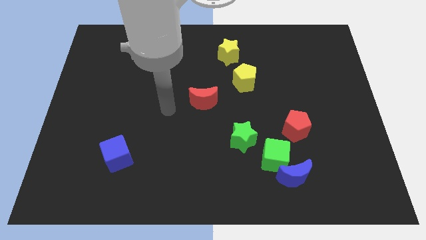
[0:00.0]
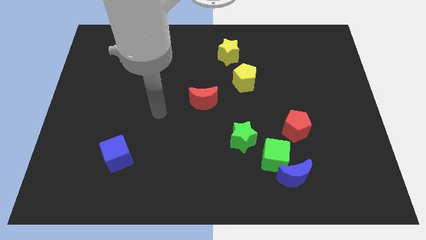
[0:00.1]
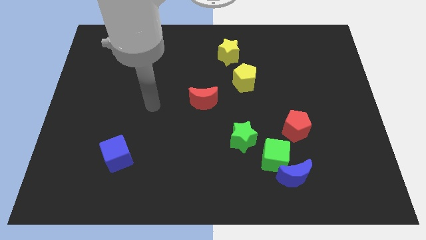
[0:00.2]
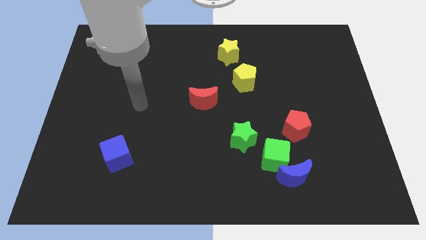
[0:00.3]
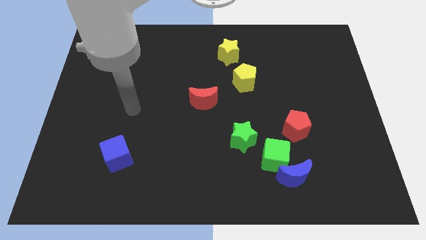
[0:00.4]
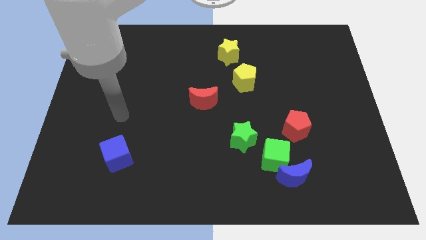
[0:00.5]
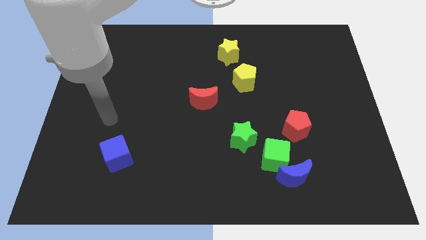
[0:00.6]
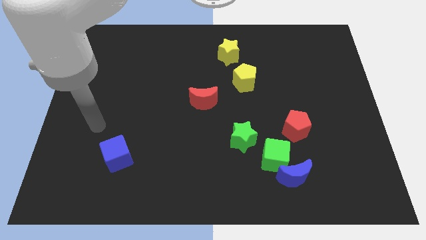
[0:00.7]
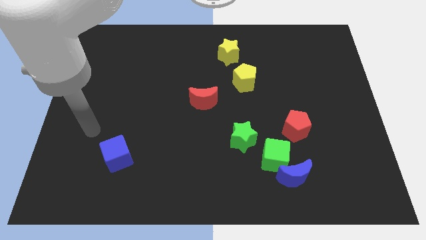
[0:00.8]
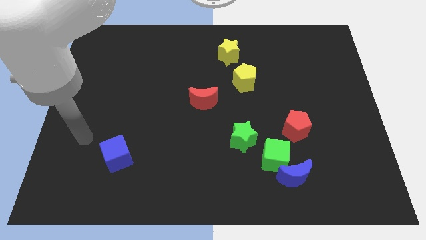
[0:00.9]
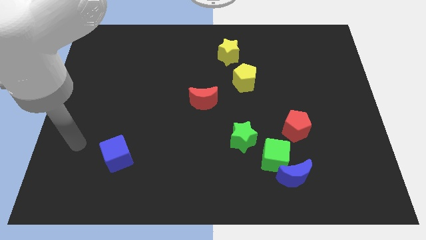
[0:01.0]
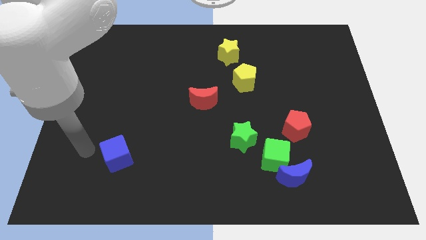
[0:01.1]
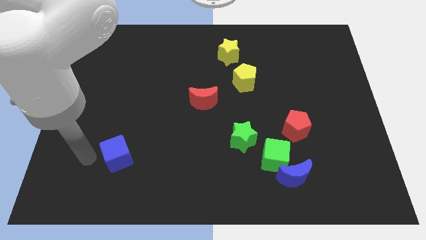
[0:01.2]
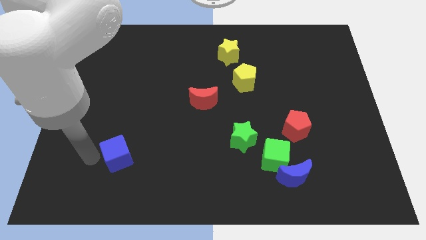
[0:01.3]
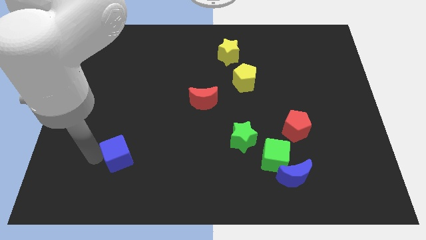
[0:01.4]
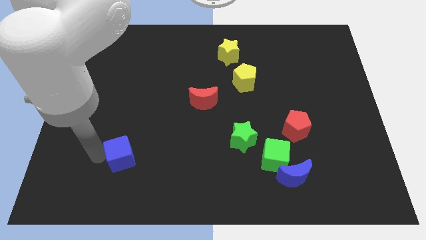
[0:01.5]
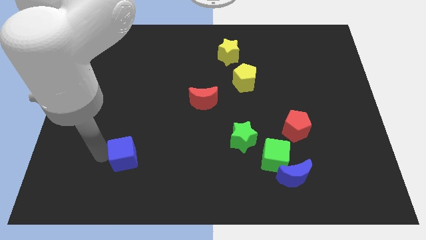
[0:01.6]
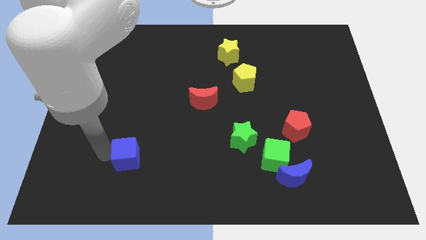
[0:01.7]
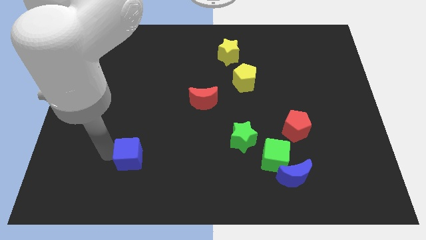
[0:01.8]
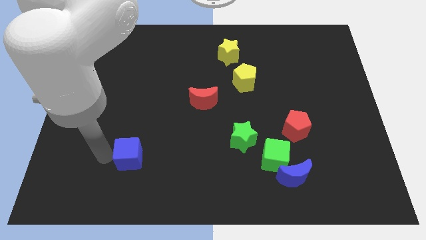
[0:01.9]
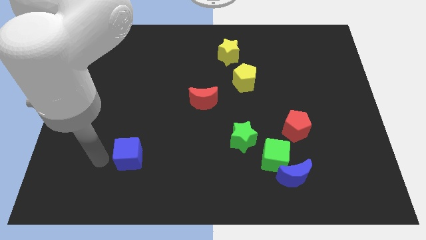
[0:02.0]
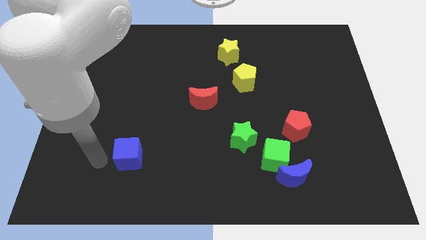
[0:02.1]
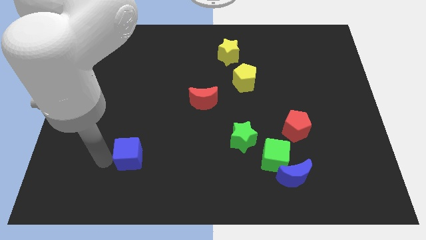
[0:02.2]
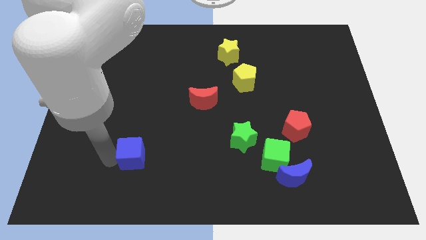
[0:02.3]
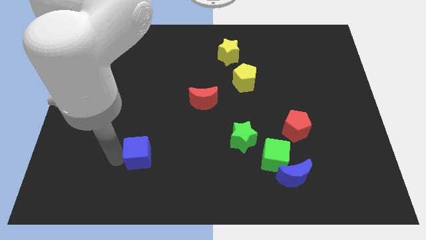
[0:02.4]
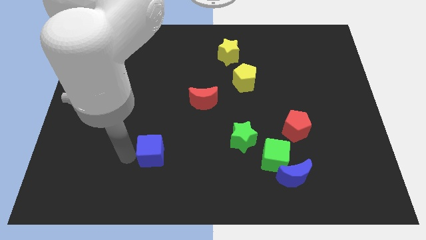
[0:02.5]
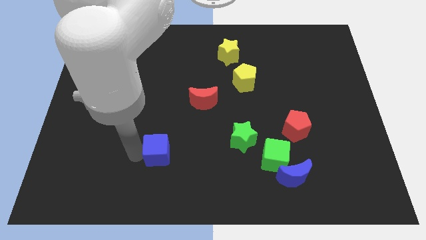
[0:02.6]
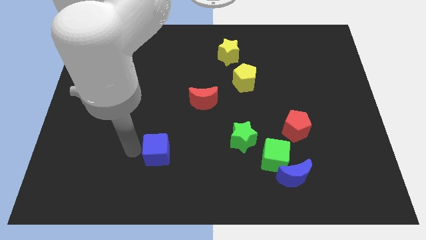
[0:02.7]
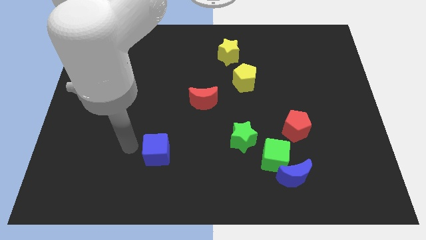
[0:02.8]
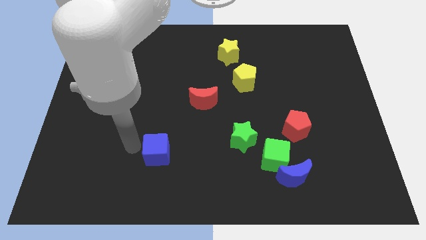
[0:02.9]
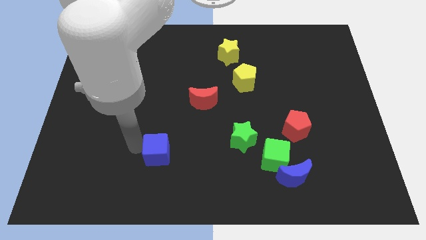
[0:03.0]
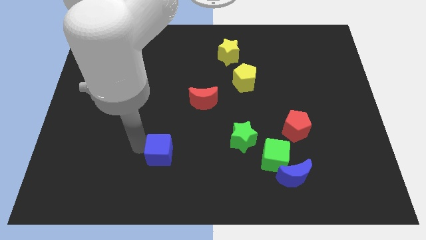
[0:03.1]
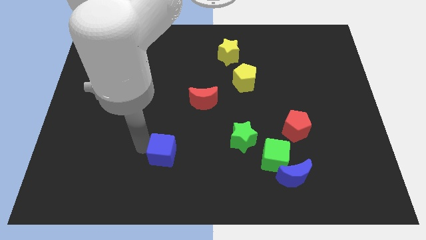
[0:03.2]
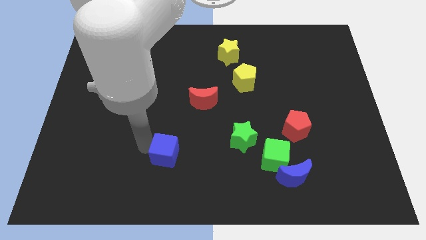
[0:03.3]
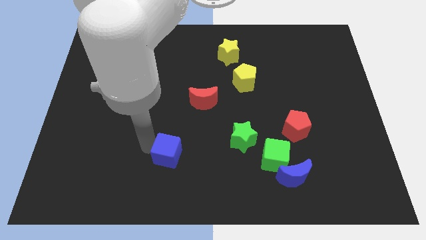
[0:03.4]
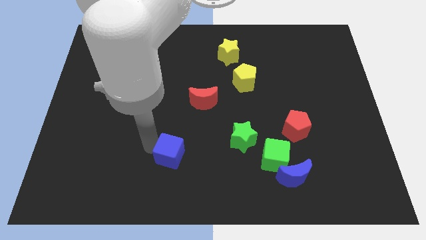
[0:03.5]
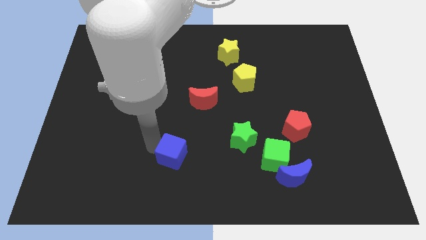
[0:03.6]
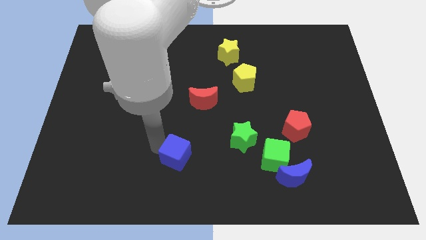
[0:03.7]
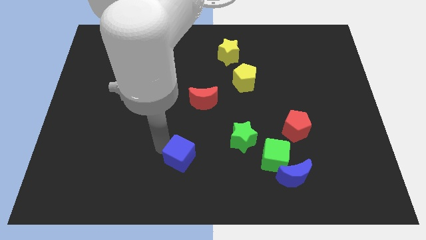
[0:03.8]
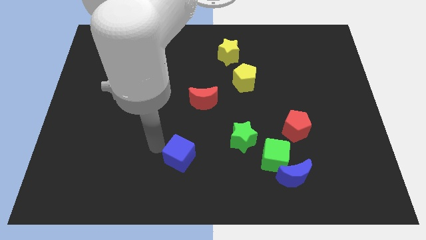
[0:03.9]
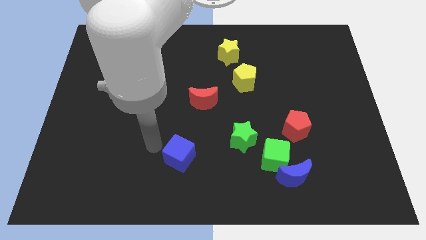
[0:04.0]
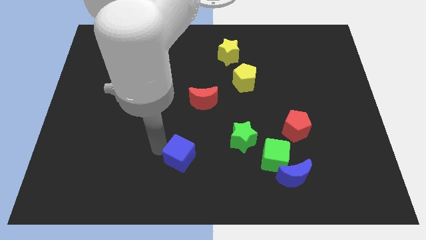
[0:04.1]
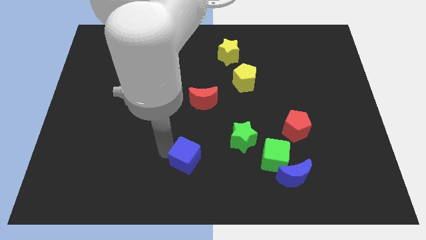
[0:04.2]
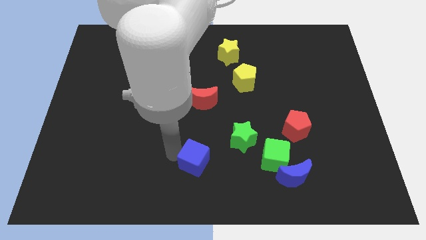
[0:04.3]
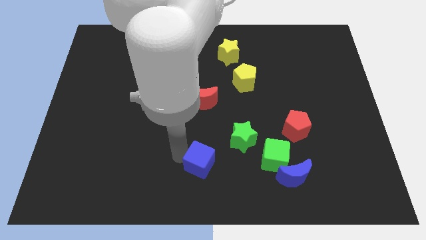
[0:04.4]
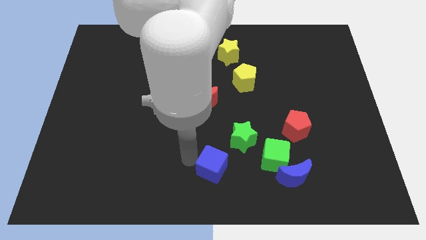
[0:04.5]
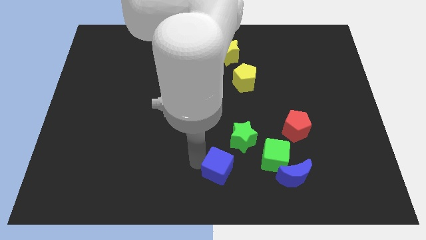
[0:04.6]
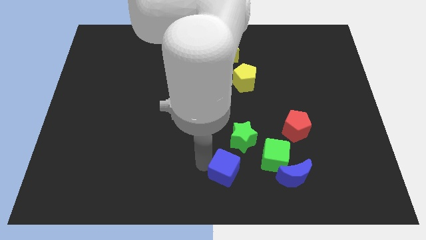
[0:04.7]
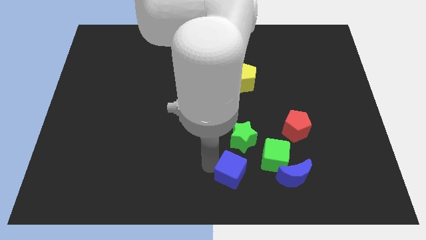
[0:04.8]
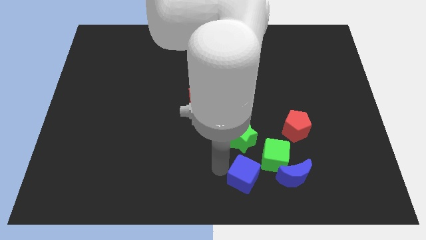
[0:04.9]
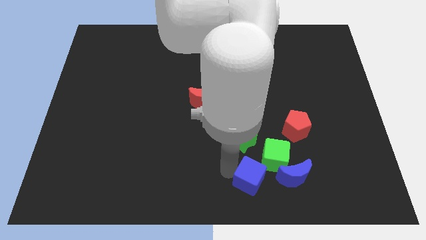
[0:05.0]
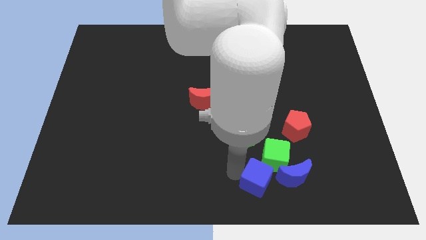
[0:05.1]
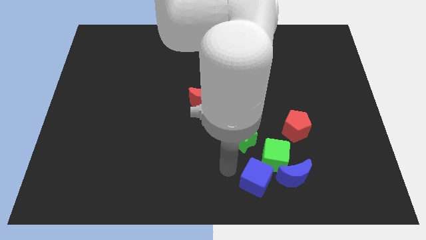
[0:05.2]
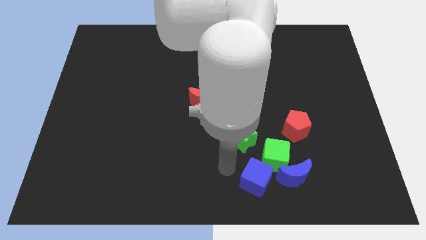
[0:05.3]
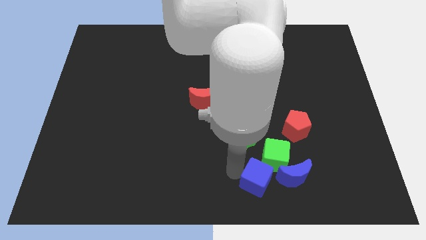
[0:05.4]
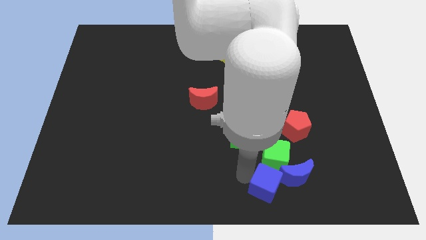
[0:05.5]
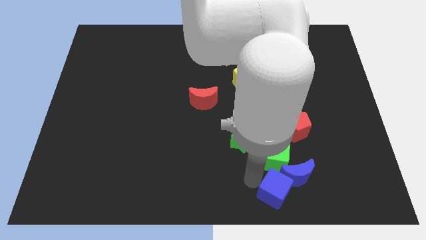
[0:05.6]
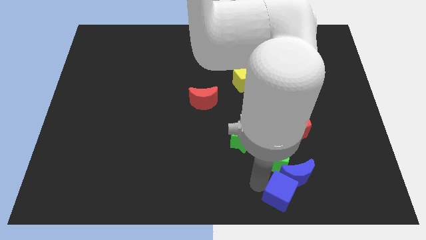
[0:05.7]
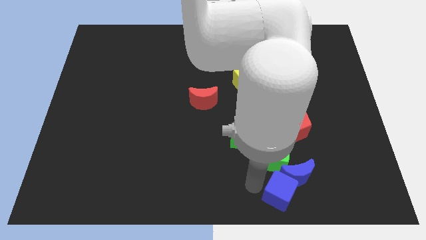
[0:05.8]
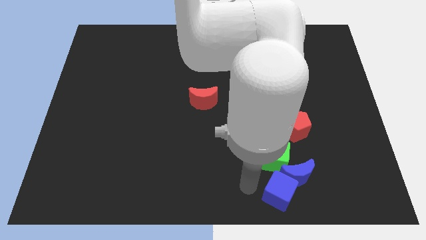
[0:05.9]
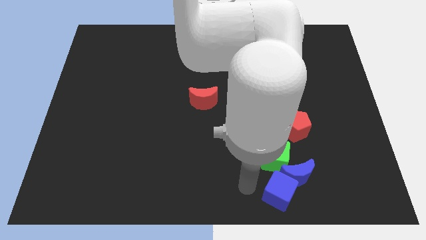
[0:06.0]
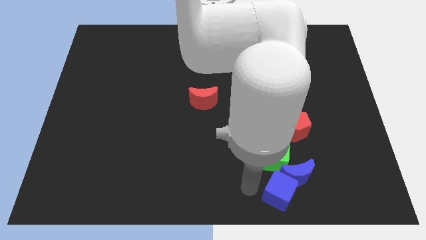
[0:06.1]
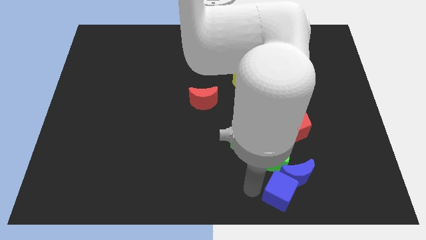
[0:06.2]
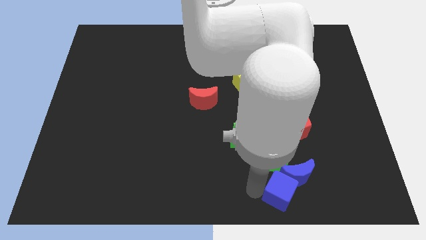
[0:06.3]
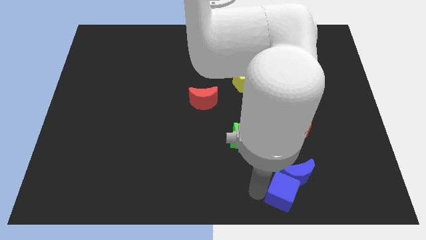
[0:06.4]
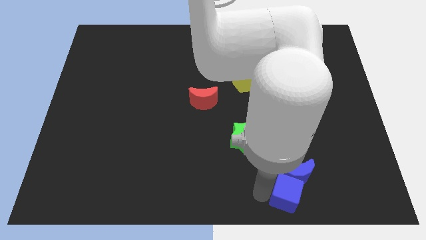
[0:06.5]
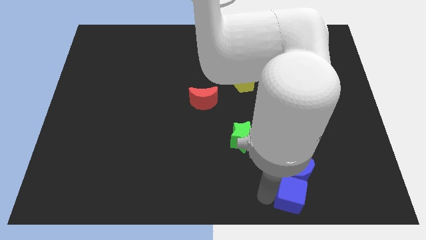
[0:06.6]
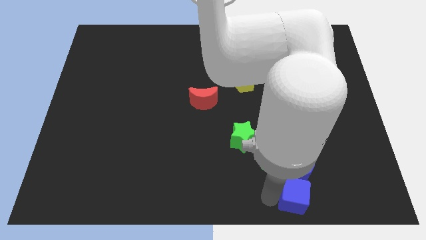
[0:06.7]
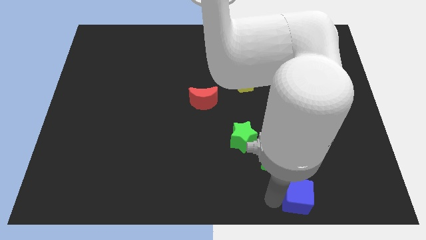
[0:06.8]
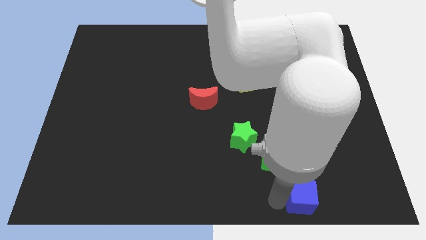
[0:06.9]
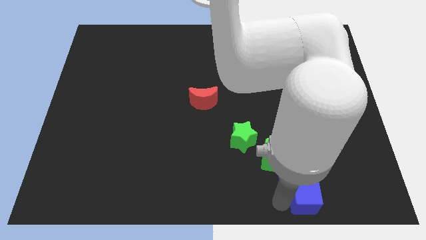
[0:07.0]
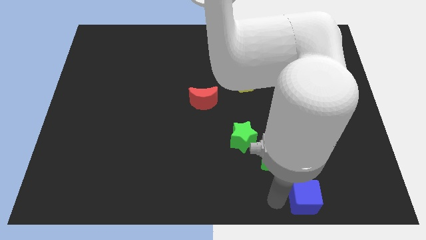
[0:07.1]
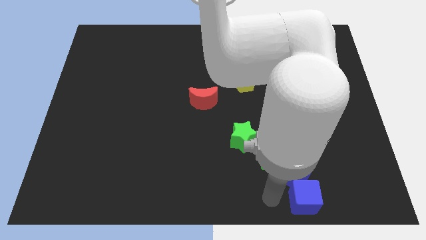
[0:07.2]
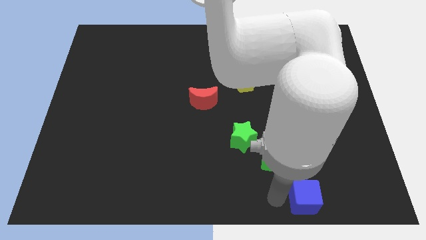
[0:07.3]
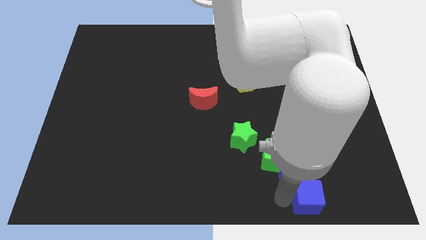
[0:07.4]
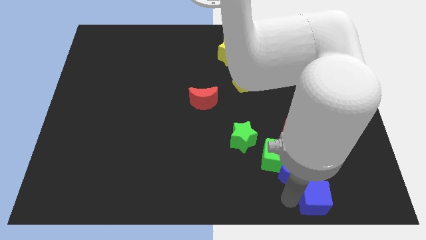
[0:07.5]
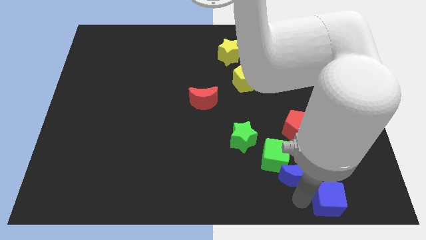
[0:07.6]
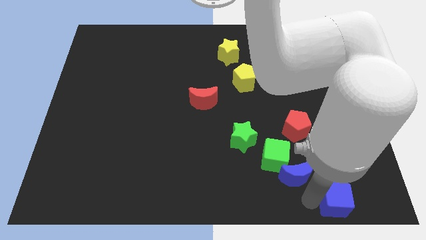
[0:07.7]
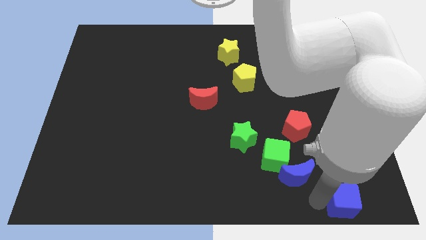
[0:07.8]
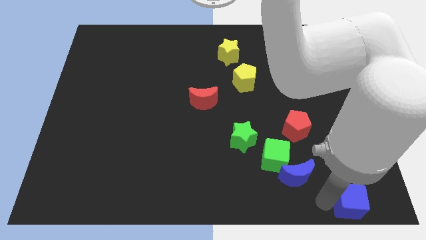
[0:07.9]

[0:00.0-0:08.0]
slide the blue cube to the bottom right of the board
